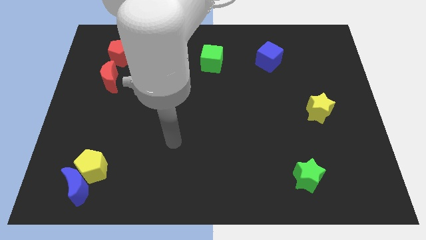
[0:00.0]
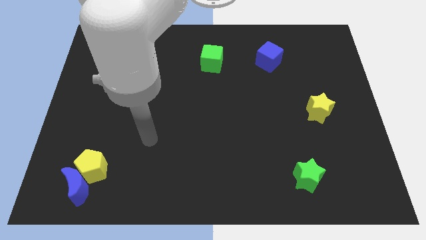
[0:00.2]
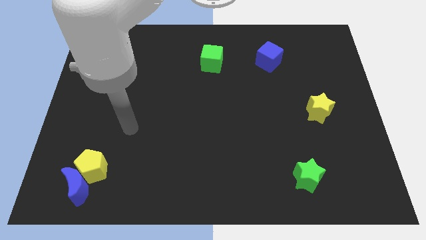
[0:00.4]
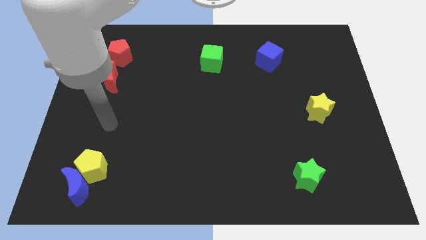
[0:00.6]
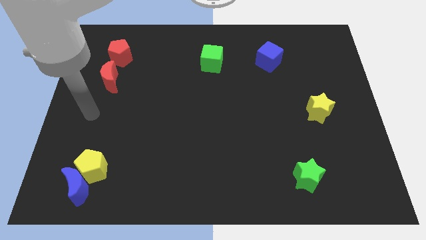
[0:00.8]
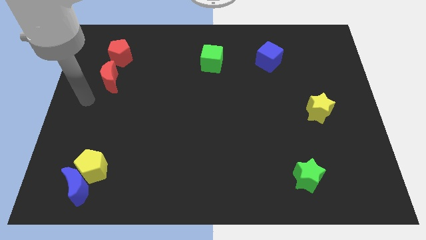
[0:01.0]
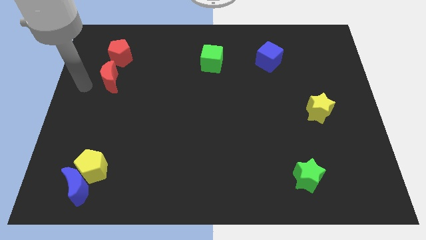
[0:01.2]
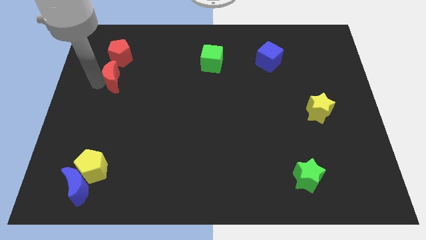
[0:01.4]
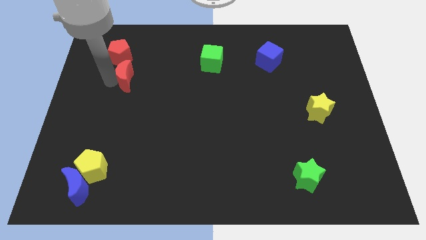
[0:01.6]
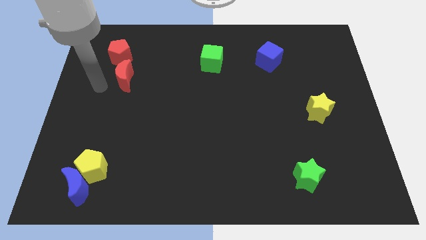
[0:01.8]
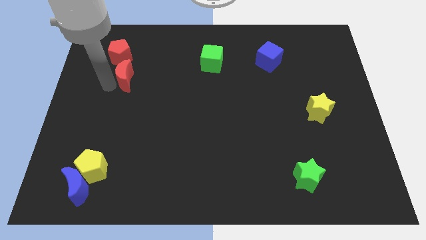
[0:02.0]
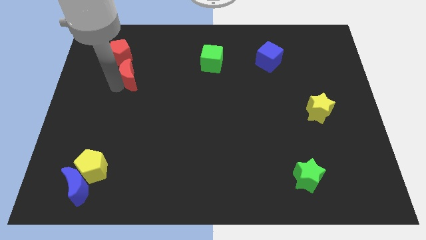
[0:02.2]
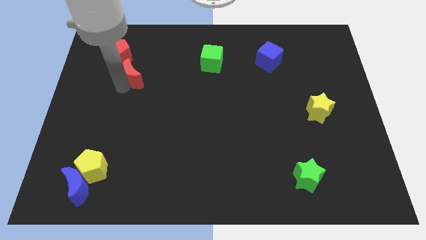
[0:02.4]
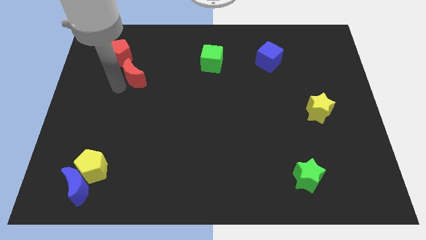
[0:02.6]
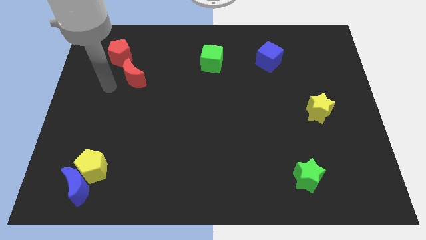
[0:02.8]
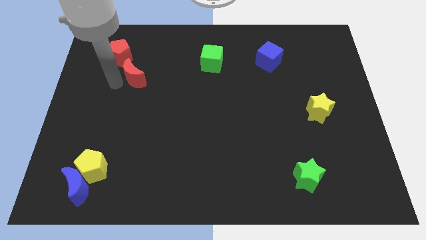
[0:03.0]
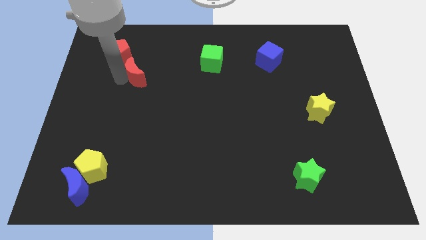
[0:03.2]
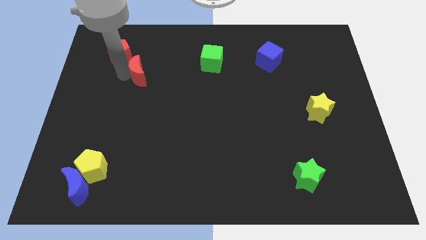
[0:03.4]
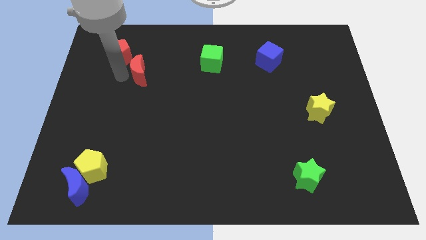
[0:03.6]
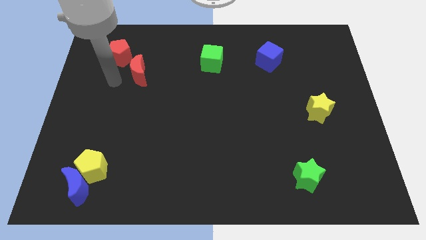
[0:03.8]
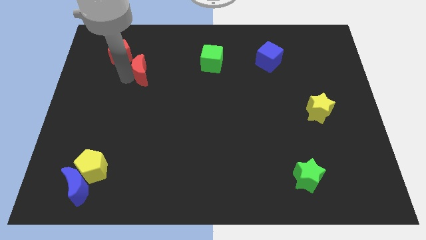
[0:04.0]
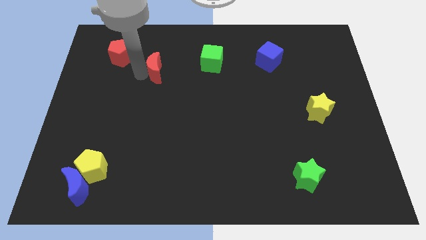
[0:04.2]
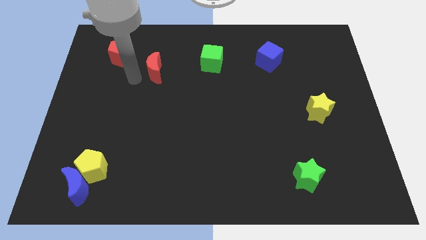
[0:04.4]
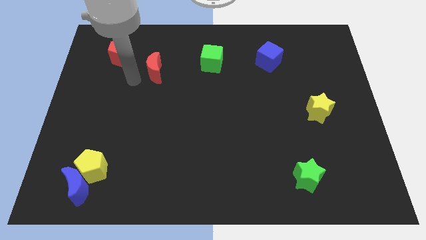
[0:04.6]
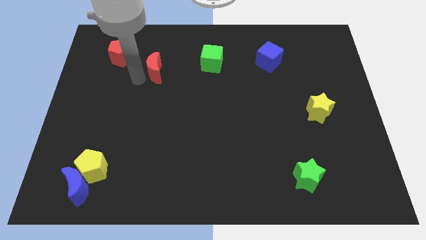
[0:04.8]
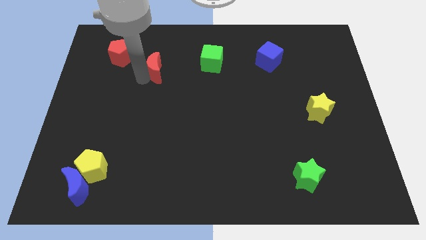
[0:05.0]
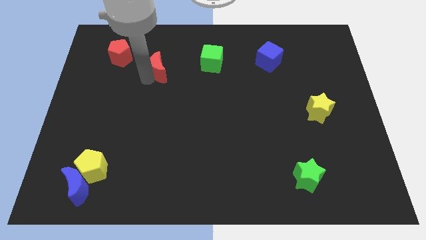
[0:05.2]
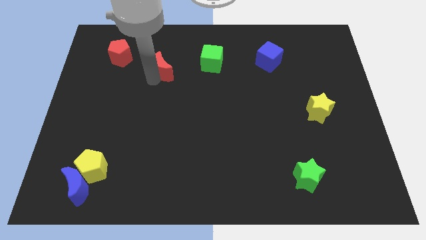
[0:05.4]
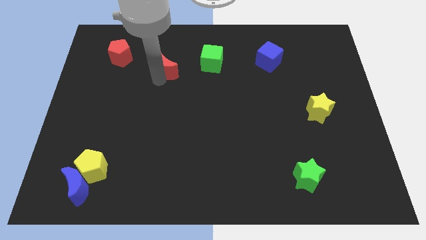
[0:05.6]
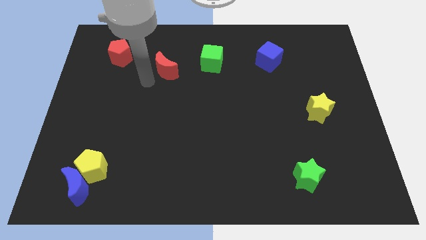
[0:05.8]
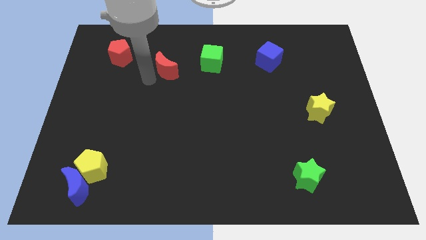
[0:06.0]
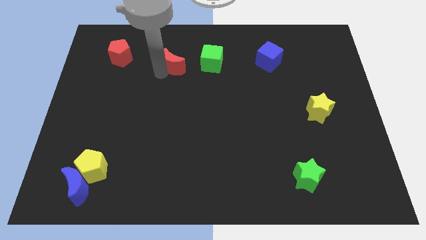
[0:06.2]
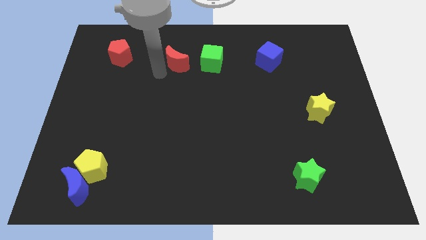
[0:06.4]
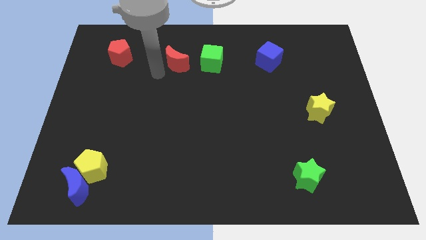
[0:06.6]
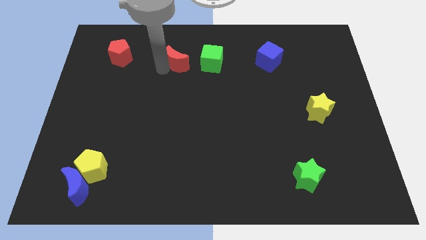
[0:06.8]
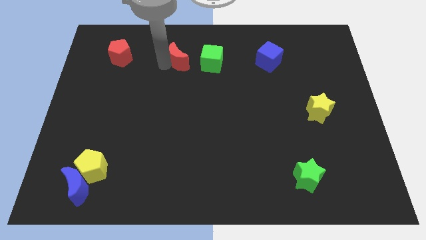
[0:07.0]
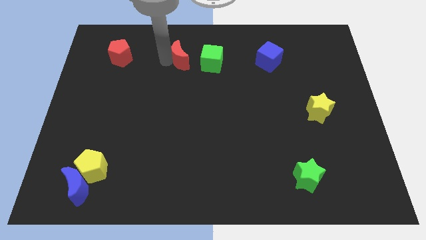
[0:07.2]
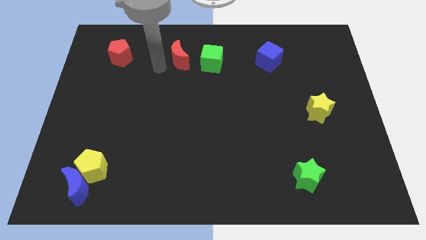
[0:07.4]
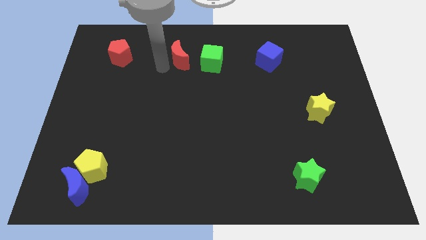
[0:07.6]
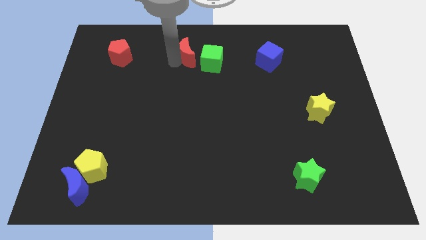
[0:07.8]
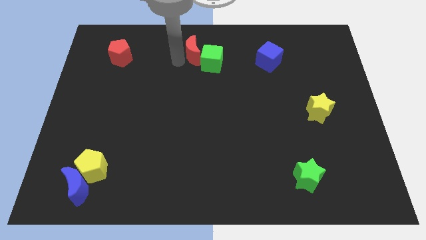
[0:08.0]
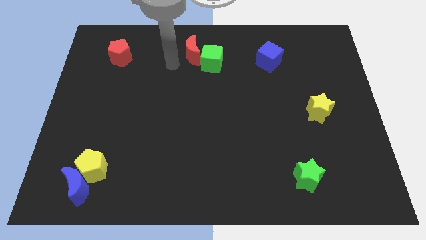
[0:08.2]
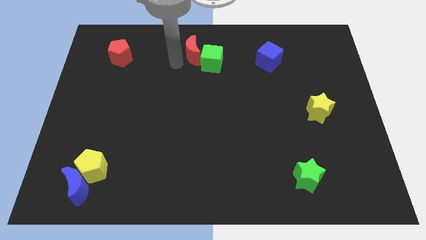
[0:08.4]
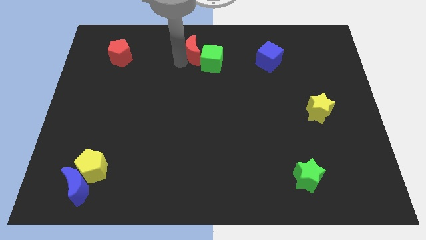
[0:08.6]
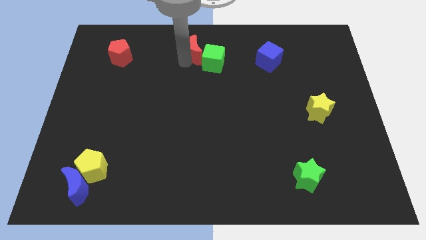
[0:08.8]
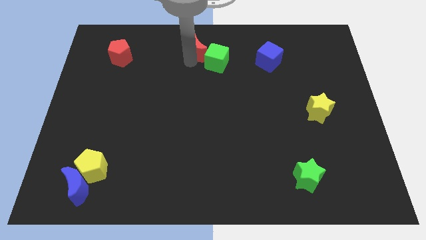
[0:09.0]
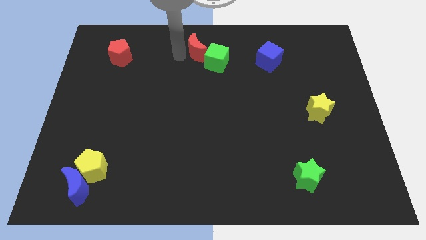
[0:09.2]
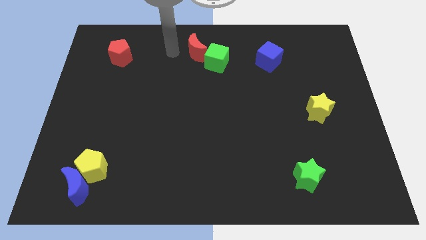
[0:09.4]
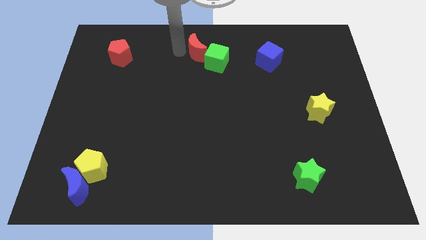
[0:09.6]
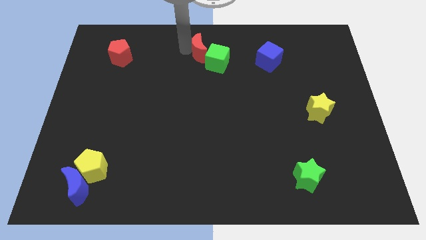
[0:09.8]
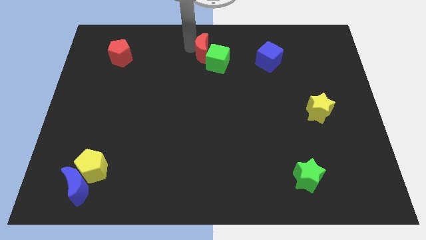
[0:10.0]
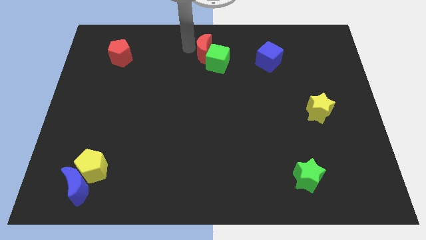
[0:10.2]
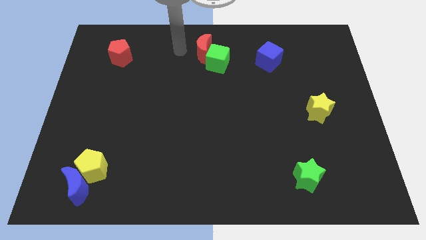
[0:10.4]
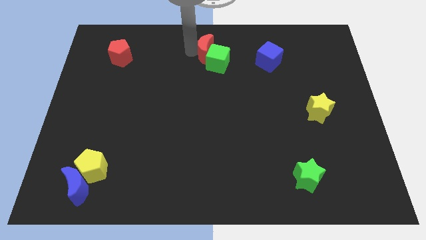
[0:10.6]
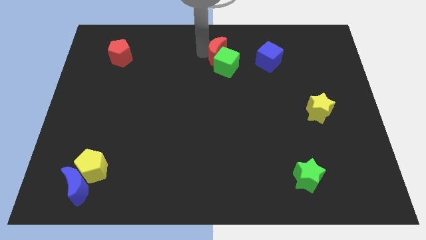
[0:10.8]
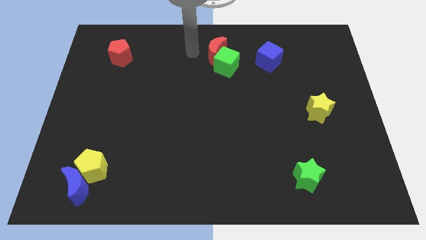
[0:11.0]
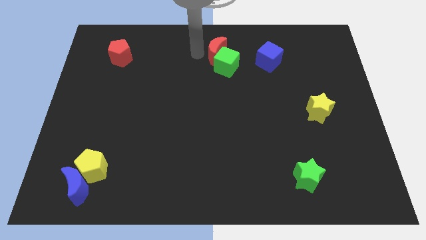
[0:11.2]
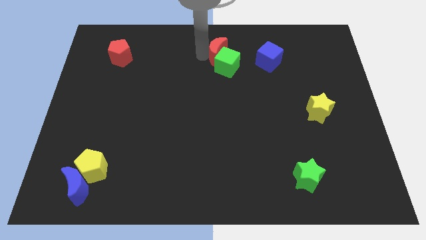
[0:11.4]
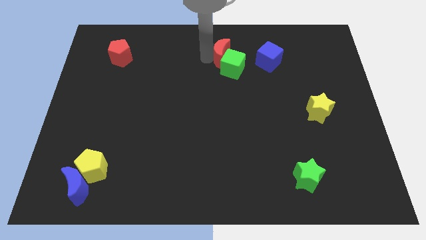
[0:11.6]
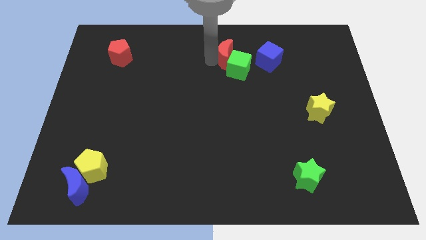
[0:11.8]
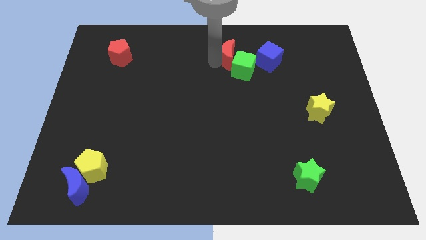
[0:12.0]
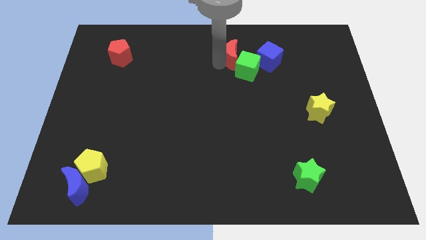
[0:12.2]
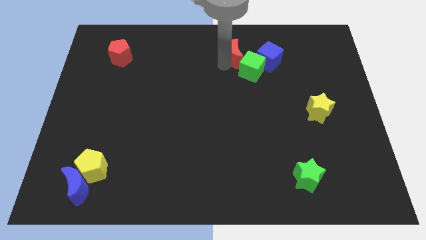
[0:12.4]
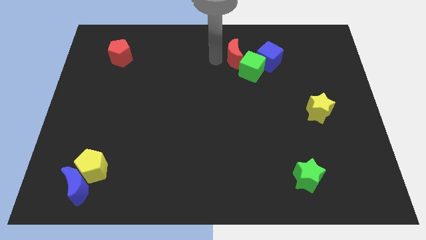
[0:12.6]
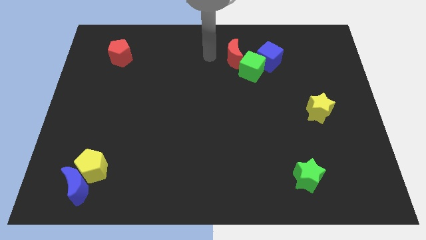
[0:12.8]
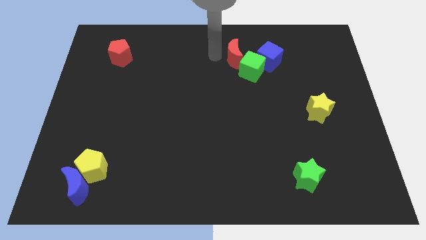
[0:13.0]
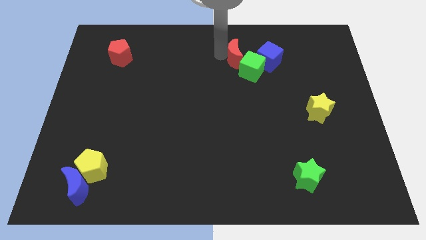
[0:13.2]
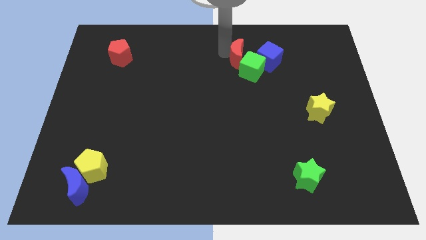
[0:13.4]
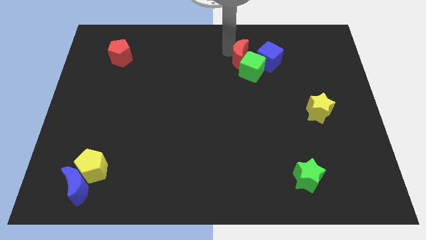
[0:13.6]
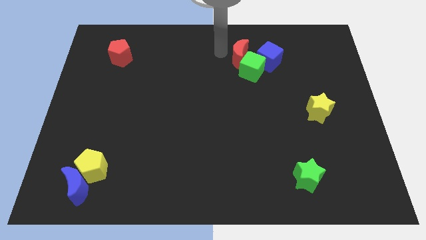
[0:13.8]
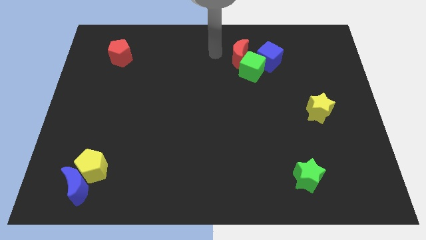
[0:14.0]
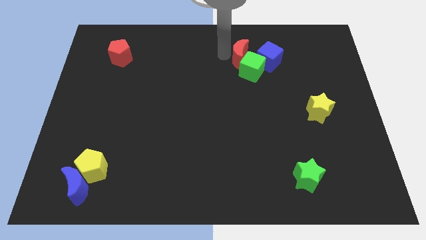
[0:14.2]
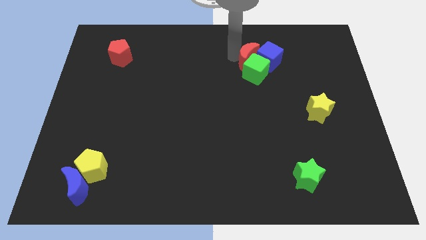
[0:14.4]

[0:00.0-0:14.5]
push the red moon next to the blue cube
